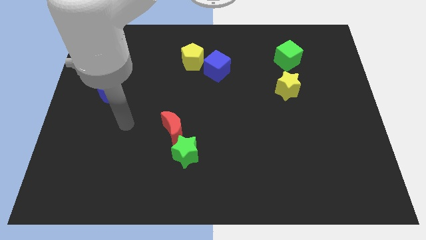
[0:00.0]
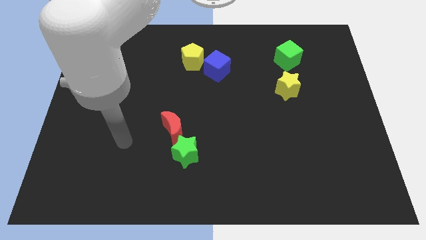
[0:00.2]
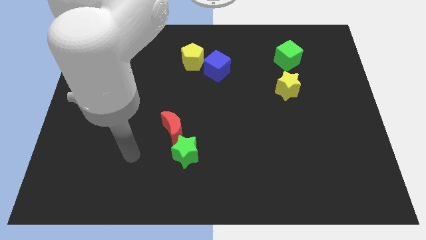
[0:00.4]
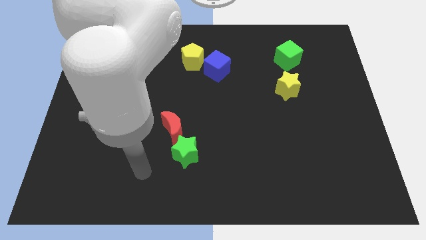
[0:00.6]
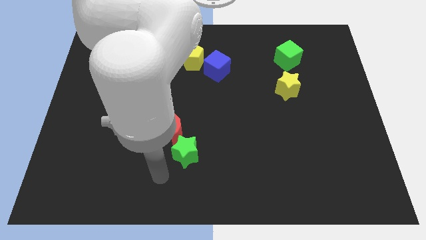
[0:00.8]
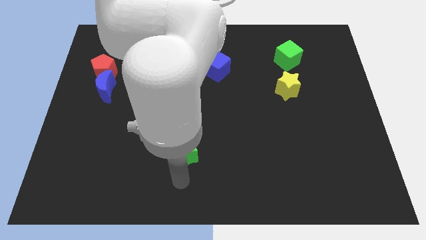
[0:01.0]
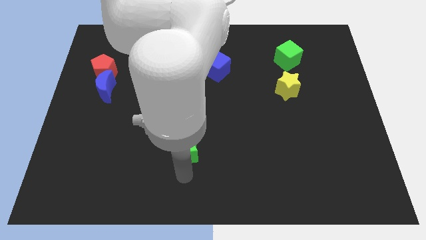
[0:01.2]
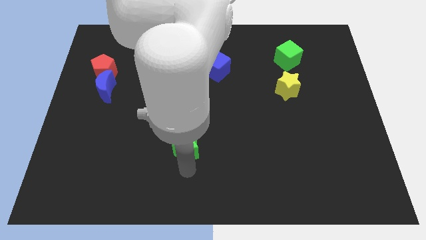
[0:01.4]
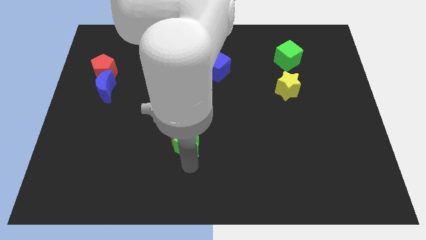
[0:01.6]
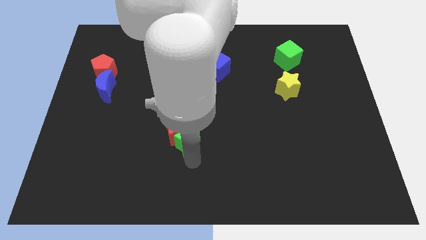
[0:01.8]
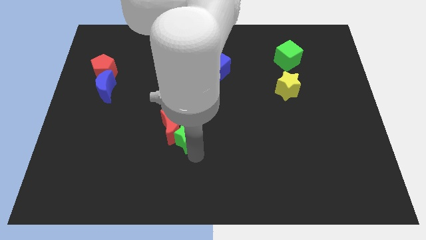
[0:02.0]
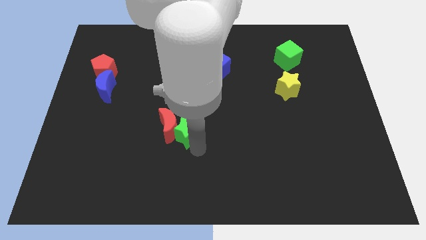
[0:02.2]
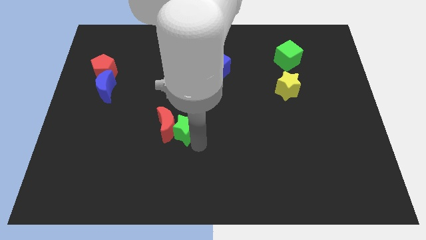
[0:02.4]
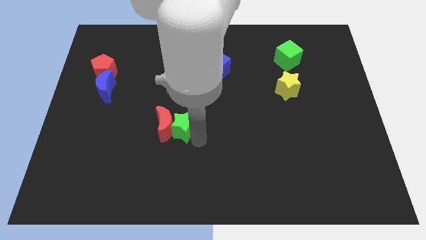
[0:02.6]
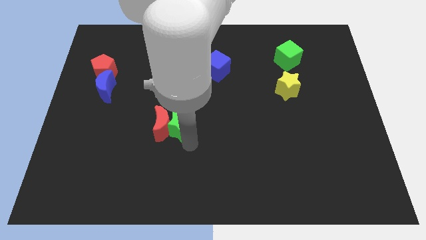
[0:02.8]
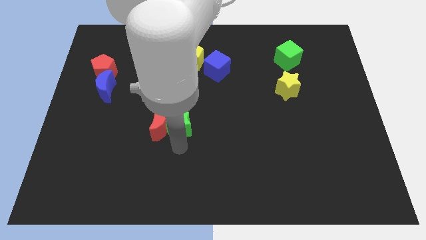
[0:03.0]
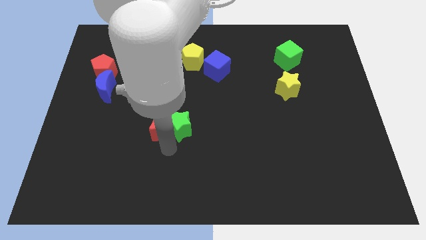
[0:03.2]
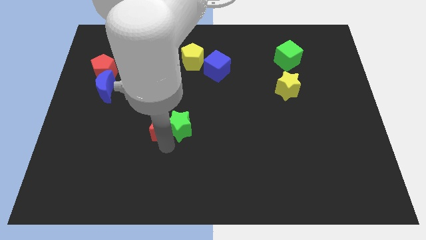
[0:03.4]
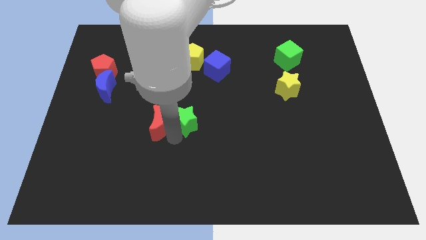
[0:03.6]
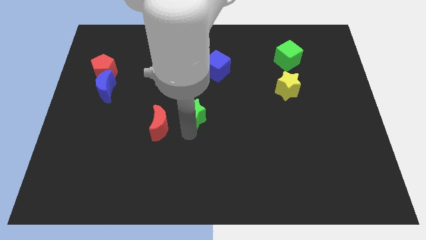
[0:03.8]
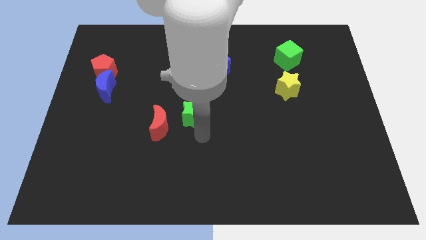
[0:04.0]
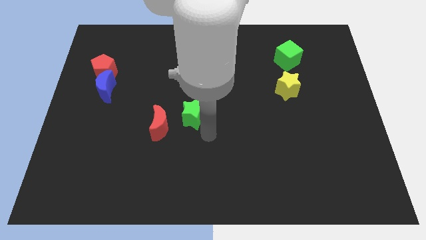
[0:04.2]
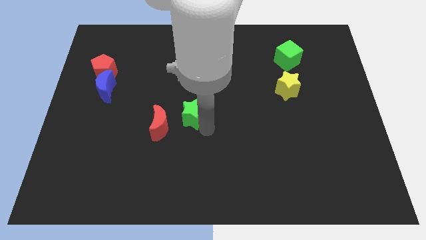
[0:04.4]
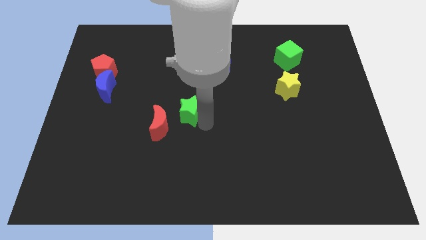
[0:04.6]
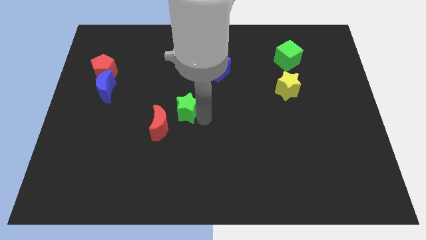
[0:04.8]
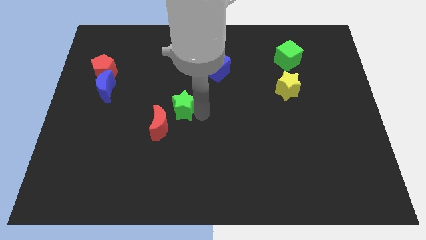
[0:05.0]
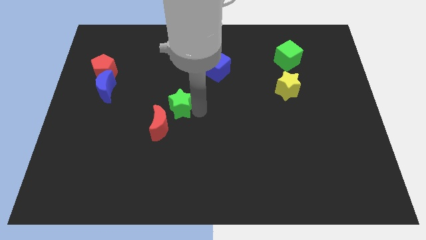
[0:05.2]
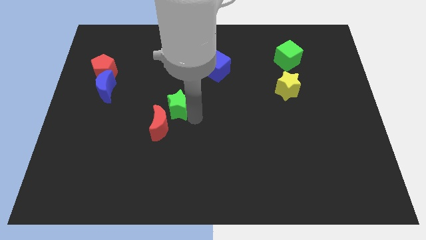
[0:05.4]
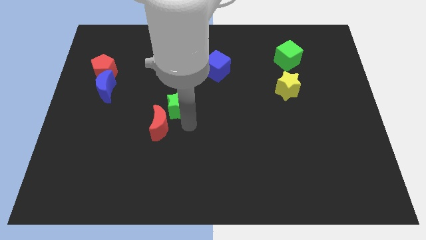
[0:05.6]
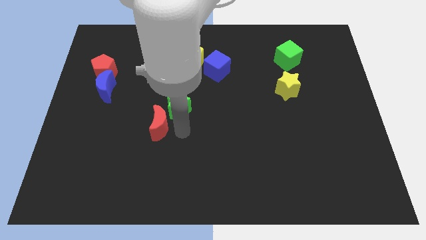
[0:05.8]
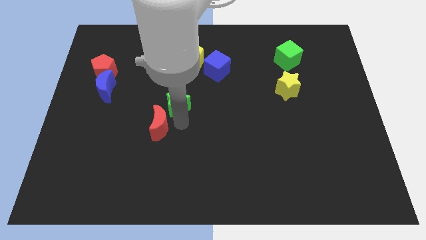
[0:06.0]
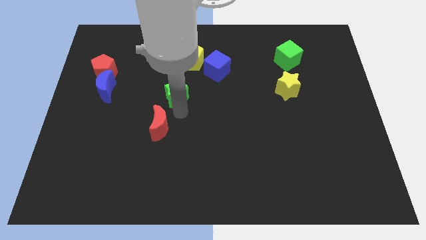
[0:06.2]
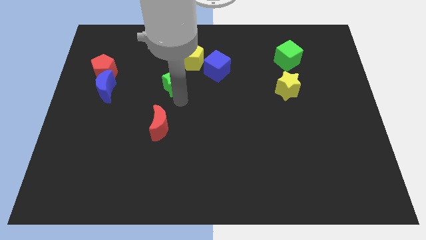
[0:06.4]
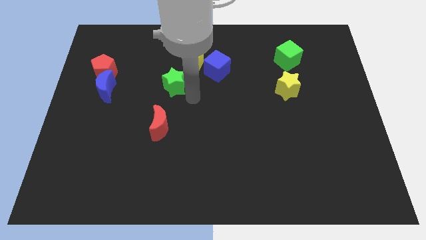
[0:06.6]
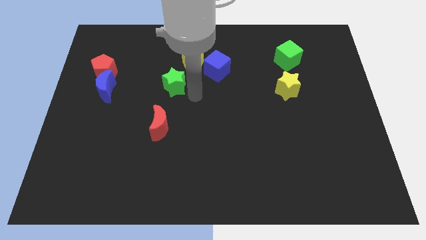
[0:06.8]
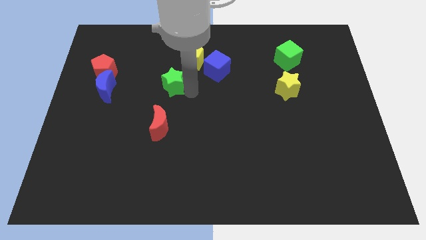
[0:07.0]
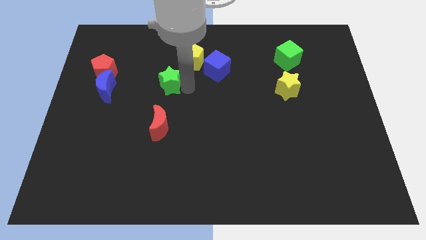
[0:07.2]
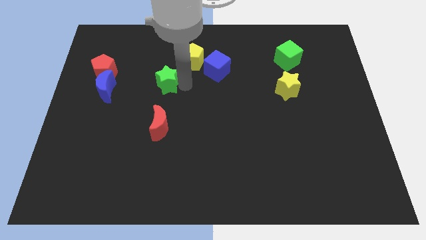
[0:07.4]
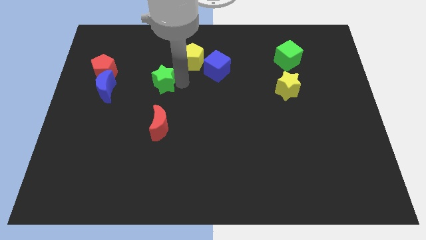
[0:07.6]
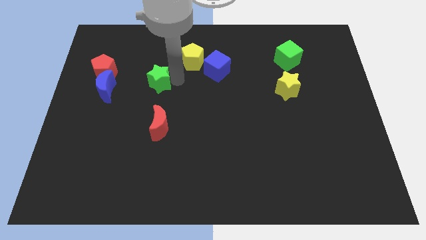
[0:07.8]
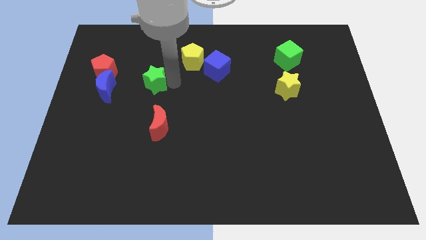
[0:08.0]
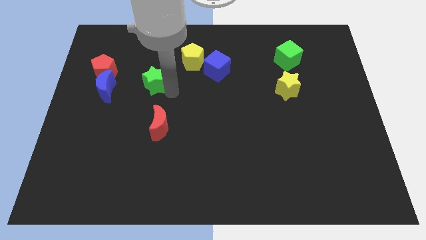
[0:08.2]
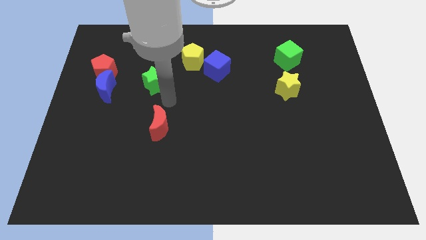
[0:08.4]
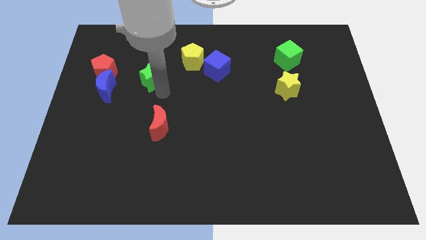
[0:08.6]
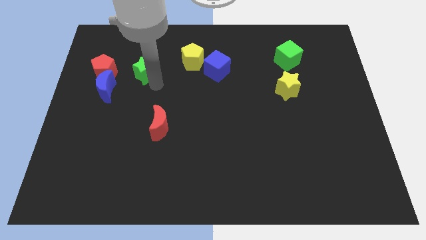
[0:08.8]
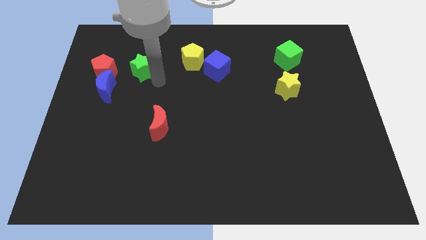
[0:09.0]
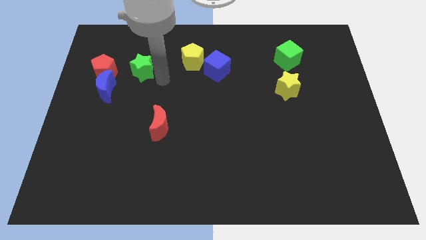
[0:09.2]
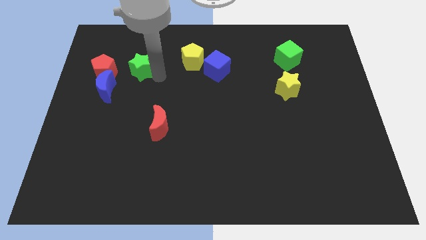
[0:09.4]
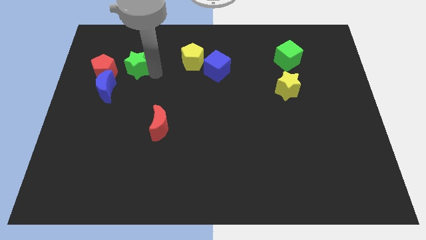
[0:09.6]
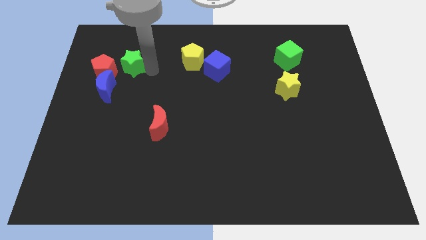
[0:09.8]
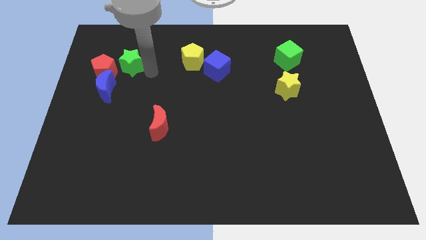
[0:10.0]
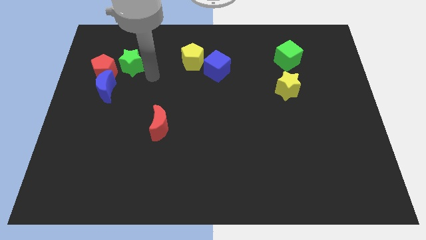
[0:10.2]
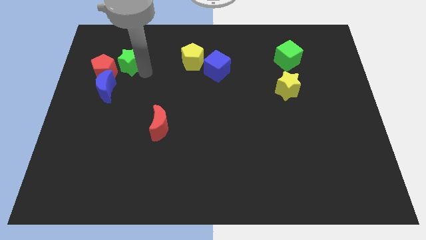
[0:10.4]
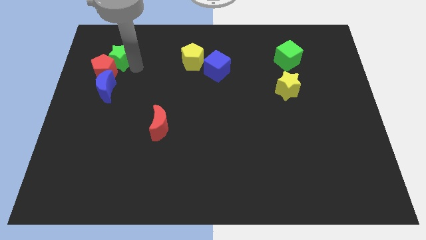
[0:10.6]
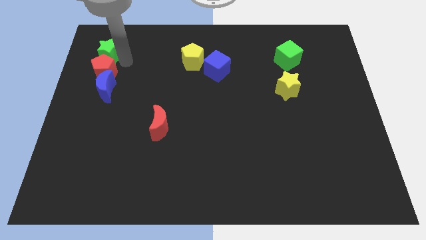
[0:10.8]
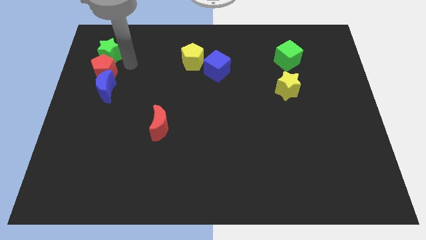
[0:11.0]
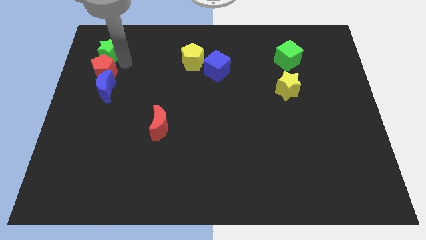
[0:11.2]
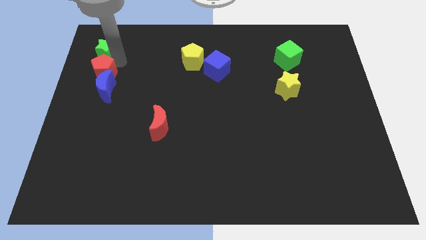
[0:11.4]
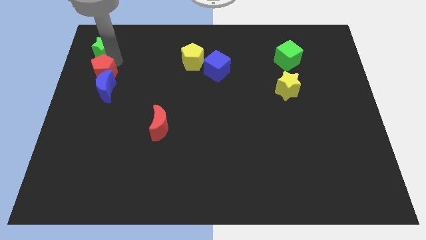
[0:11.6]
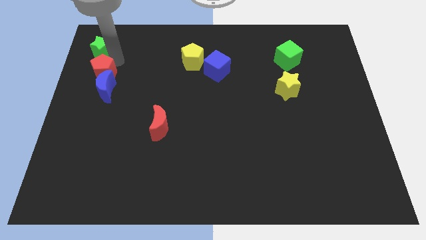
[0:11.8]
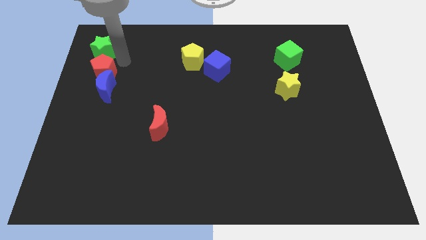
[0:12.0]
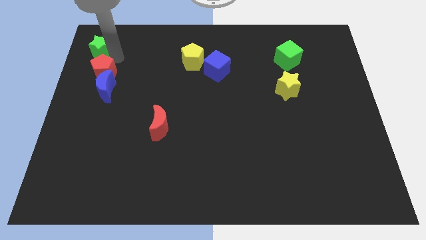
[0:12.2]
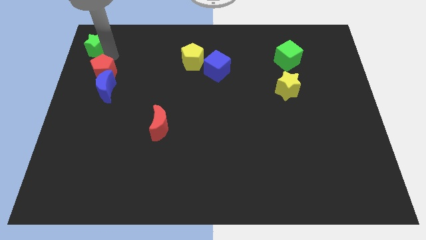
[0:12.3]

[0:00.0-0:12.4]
put the green star to the top left corner

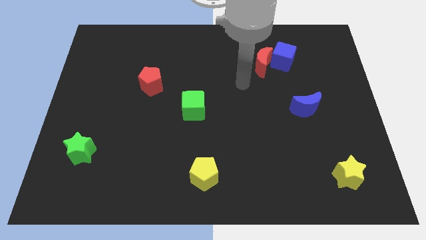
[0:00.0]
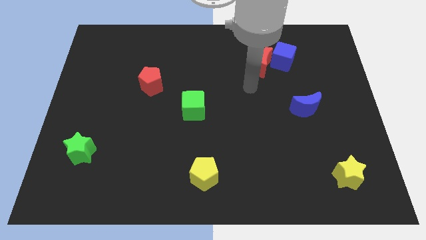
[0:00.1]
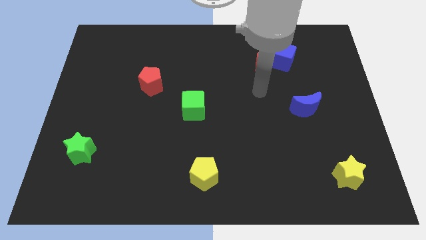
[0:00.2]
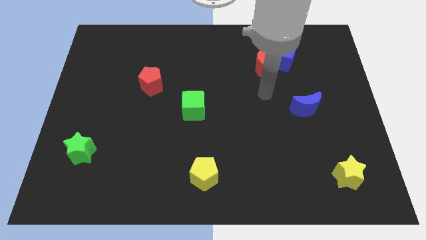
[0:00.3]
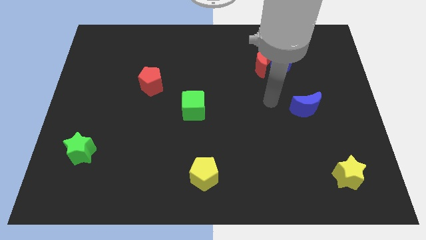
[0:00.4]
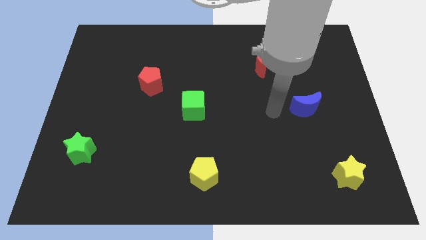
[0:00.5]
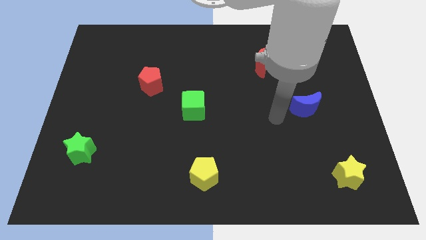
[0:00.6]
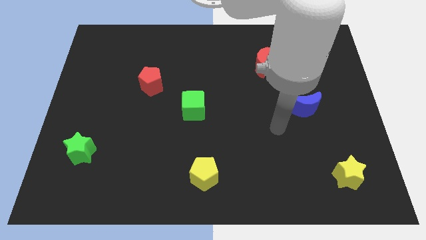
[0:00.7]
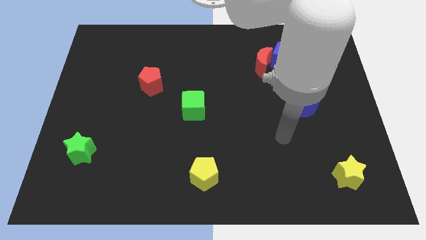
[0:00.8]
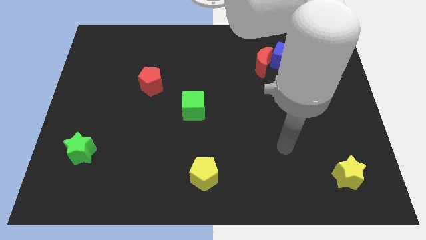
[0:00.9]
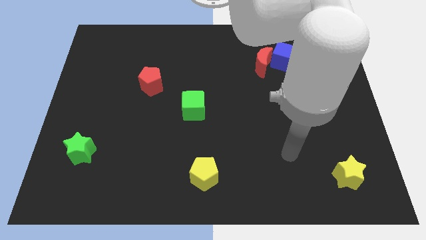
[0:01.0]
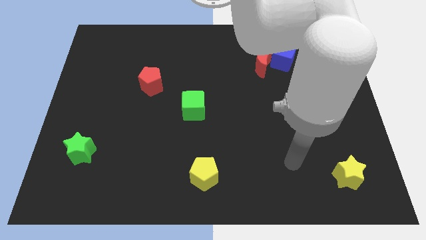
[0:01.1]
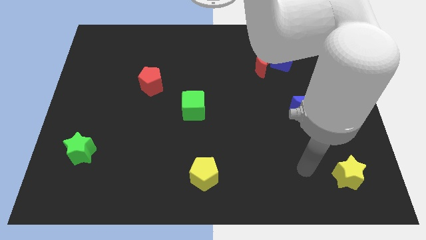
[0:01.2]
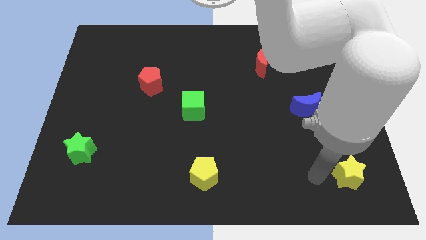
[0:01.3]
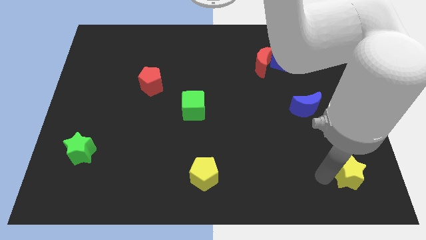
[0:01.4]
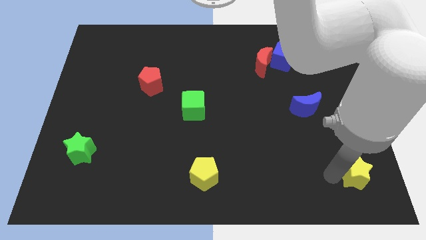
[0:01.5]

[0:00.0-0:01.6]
slide the yellow star to the lower right corner
